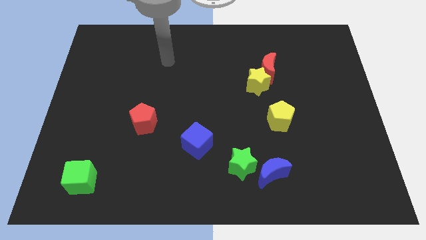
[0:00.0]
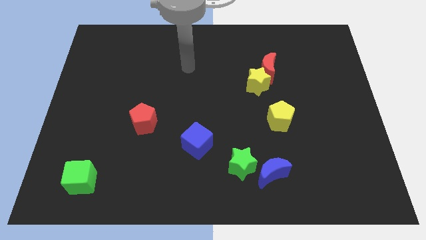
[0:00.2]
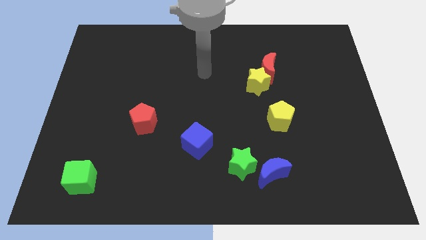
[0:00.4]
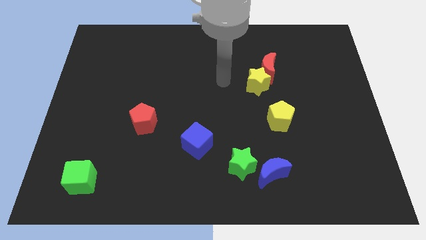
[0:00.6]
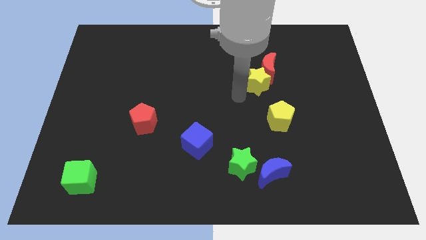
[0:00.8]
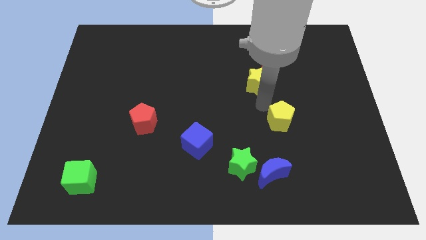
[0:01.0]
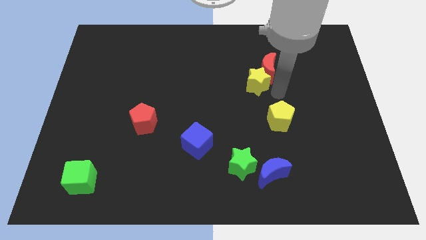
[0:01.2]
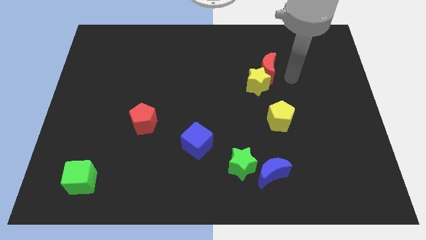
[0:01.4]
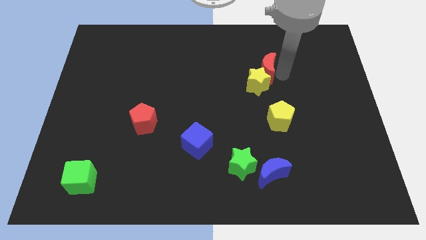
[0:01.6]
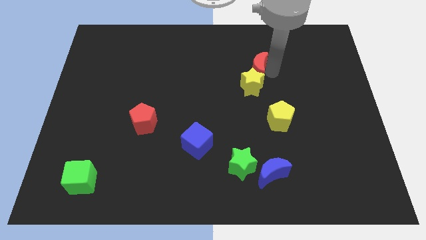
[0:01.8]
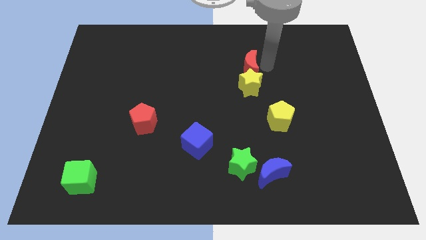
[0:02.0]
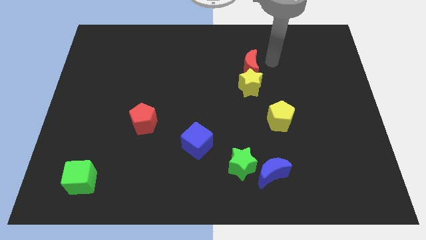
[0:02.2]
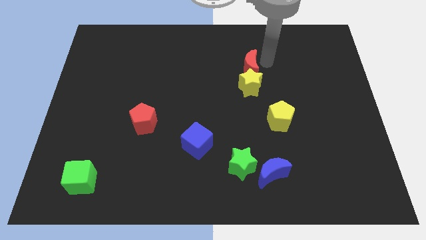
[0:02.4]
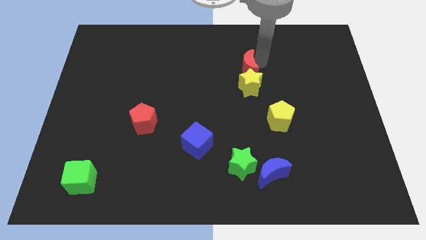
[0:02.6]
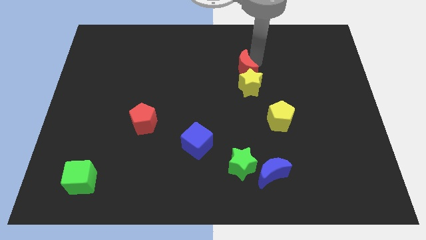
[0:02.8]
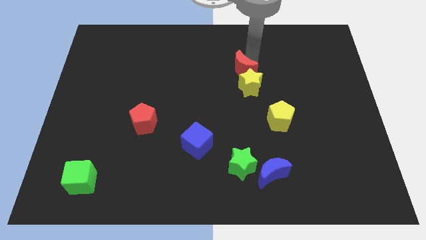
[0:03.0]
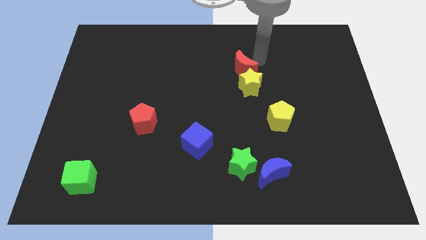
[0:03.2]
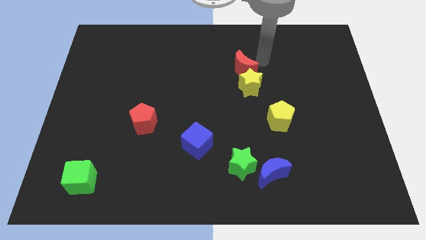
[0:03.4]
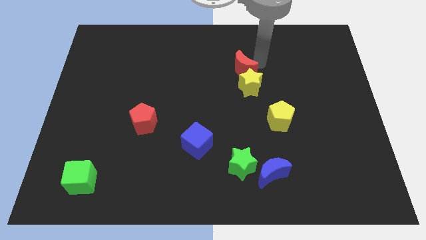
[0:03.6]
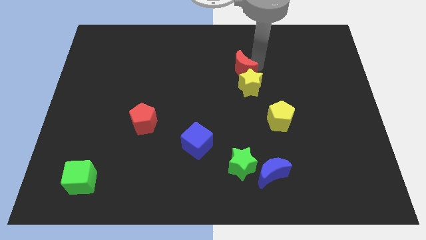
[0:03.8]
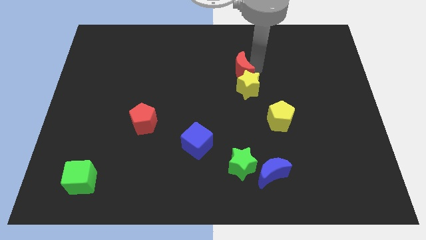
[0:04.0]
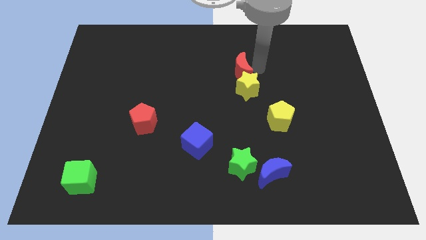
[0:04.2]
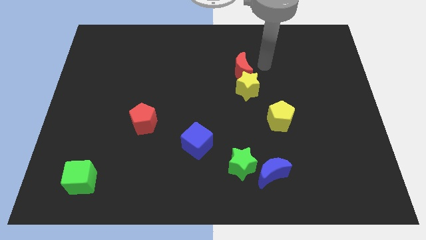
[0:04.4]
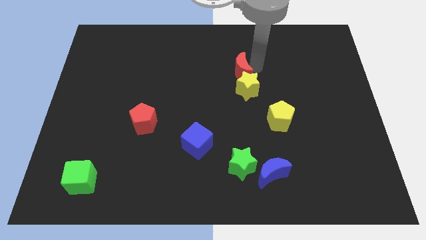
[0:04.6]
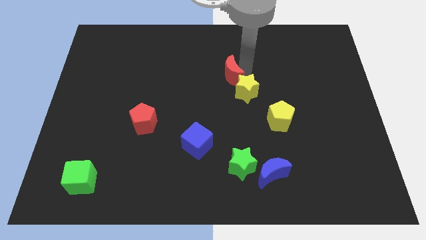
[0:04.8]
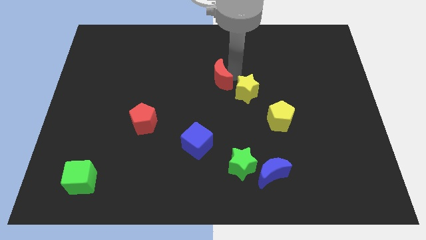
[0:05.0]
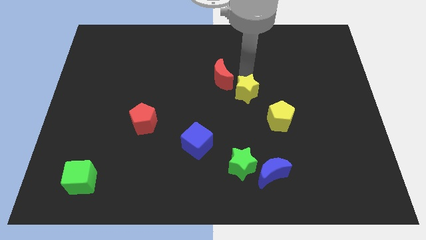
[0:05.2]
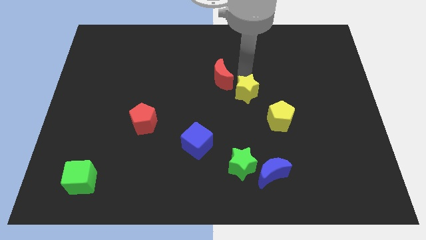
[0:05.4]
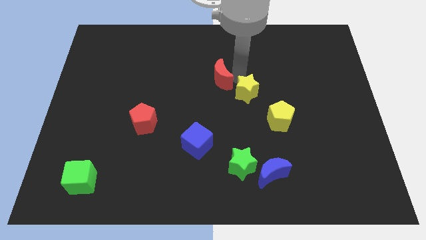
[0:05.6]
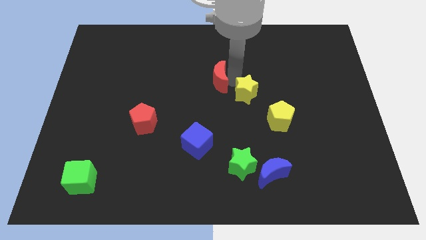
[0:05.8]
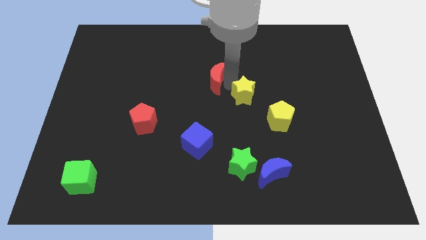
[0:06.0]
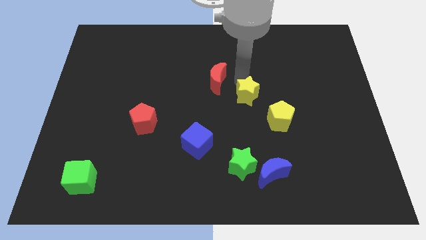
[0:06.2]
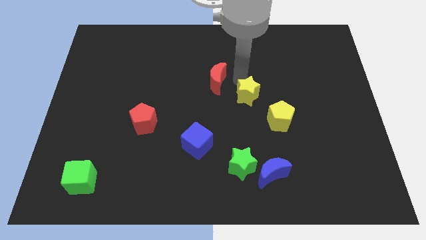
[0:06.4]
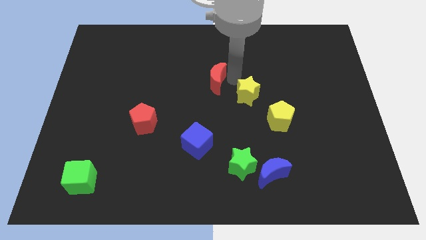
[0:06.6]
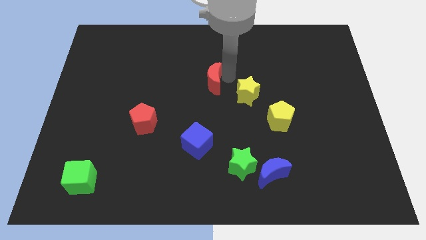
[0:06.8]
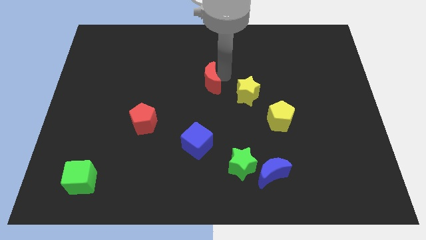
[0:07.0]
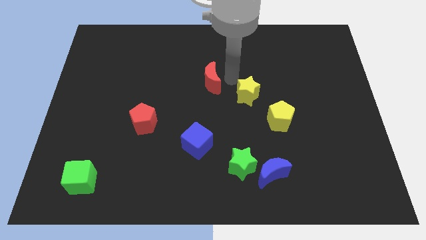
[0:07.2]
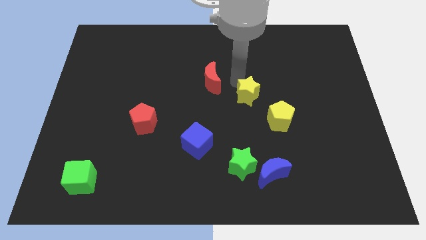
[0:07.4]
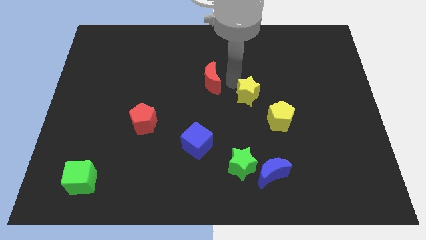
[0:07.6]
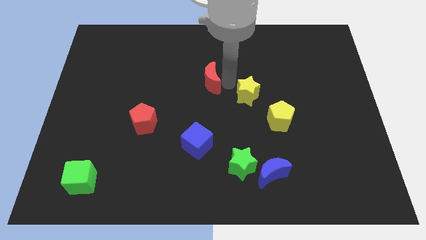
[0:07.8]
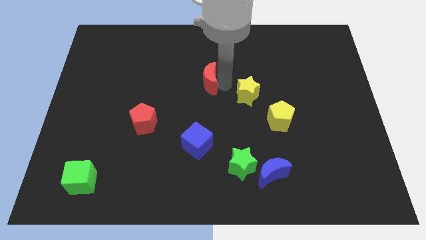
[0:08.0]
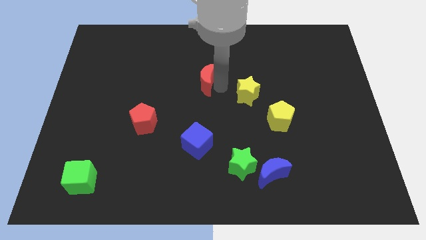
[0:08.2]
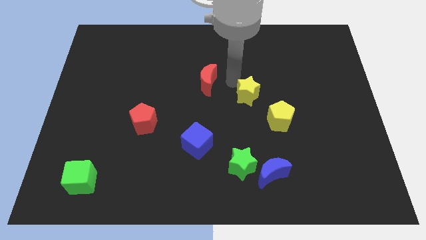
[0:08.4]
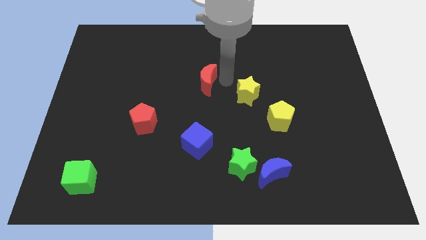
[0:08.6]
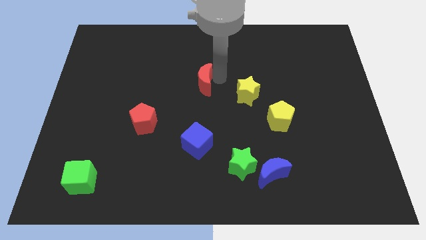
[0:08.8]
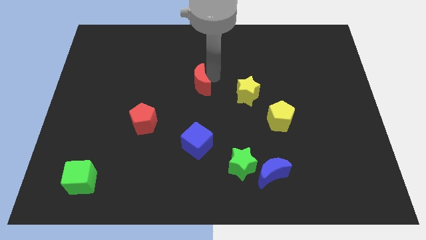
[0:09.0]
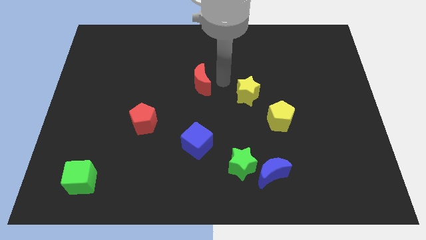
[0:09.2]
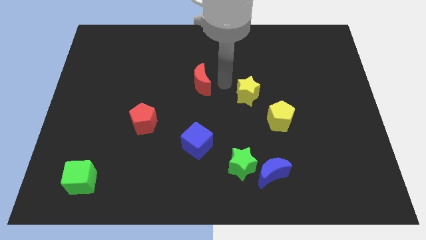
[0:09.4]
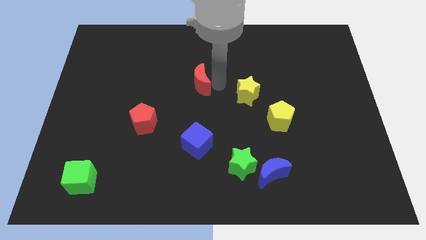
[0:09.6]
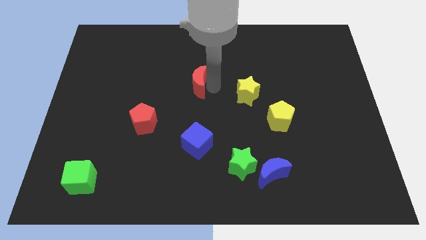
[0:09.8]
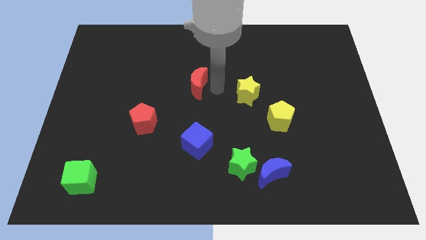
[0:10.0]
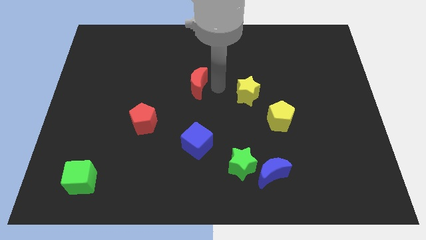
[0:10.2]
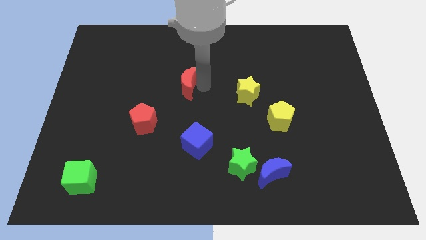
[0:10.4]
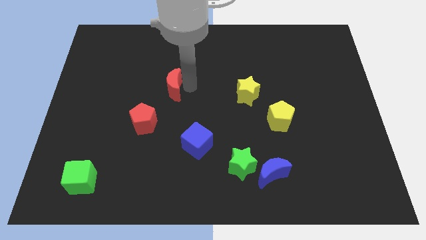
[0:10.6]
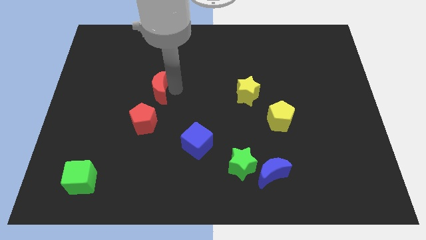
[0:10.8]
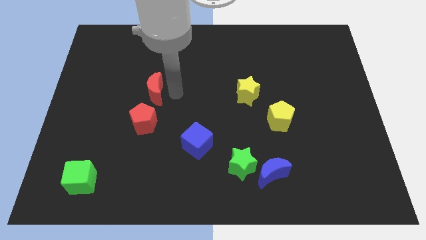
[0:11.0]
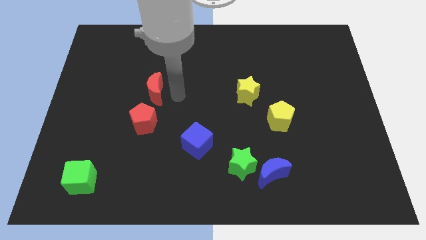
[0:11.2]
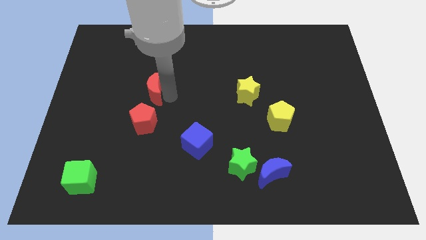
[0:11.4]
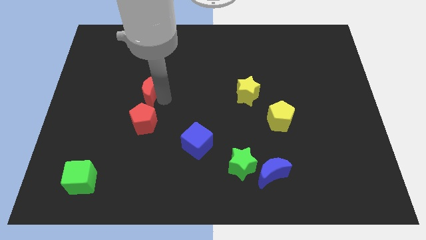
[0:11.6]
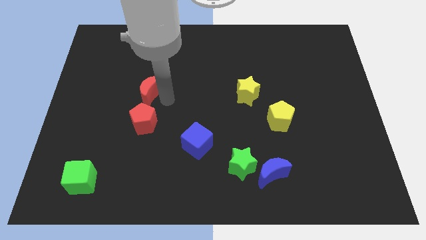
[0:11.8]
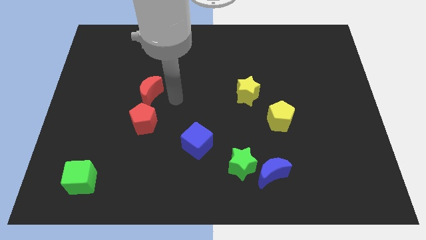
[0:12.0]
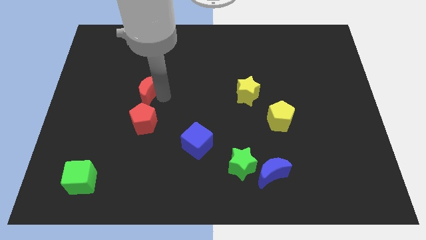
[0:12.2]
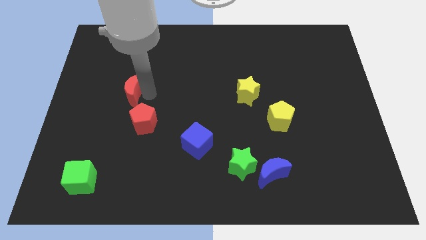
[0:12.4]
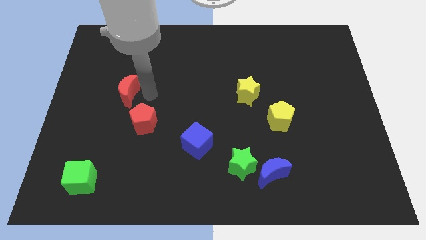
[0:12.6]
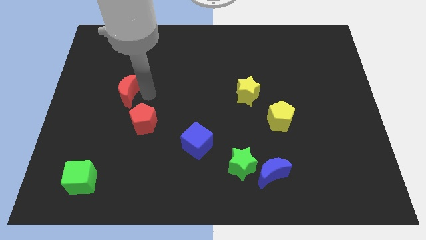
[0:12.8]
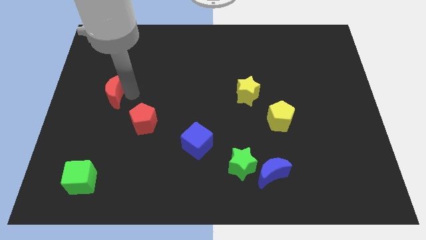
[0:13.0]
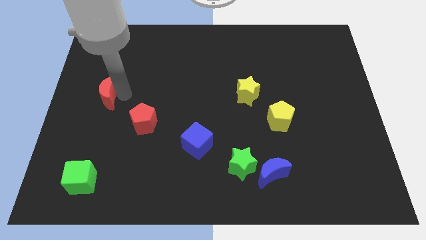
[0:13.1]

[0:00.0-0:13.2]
slide the red moon to the center left
